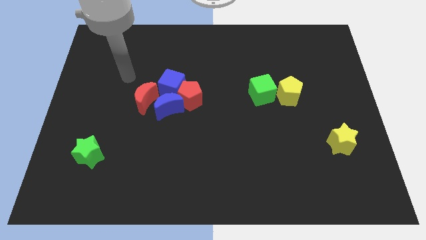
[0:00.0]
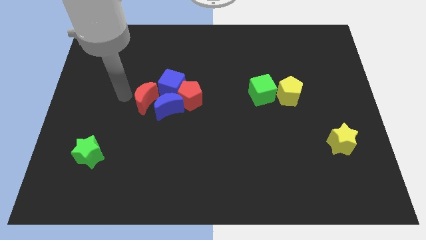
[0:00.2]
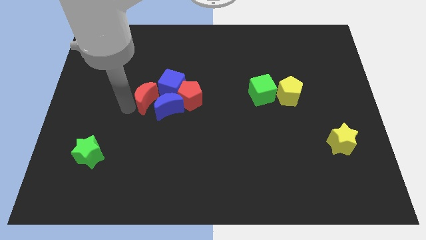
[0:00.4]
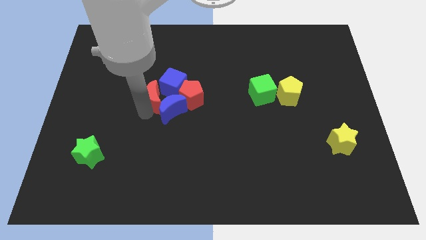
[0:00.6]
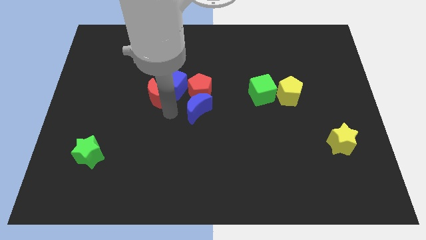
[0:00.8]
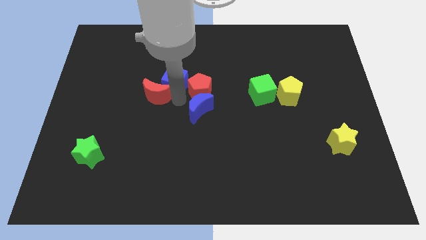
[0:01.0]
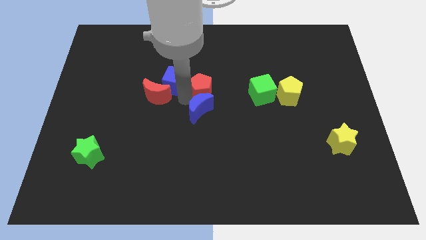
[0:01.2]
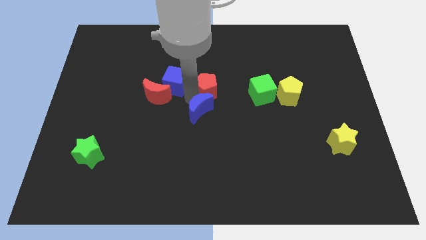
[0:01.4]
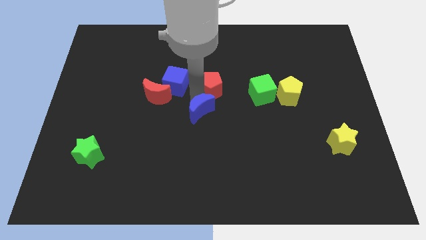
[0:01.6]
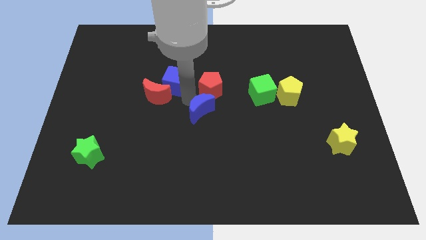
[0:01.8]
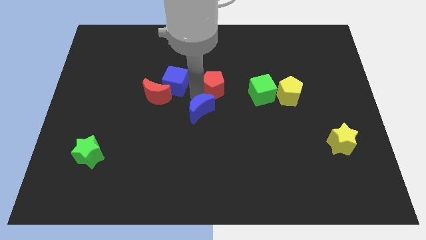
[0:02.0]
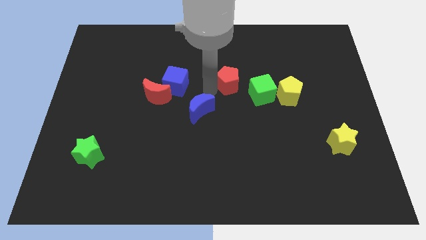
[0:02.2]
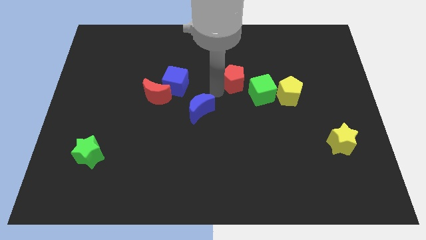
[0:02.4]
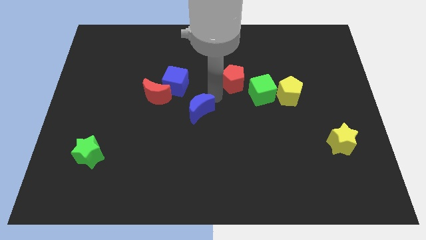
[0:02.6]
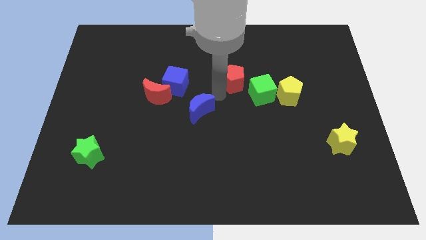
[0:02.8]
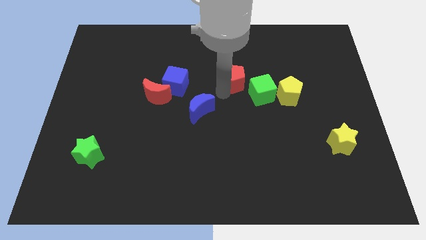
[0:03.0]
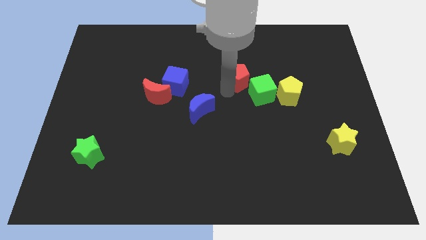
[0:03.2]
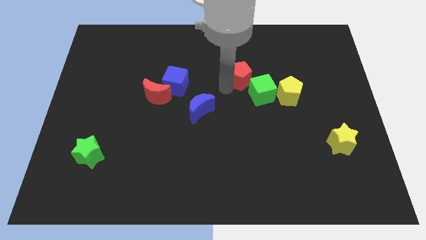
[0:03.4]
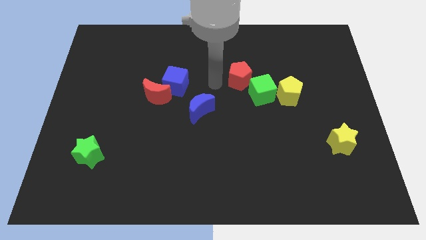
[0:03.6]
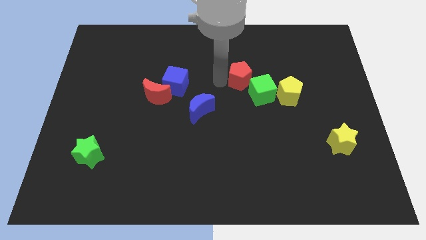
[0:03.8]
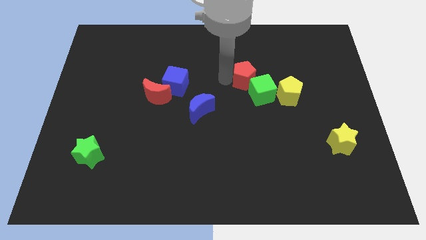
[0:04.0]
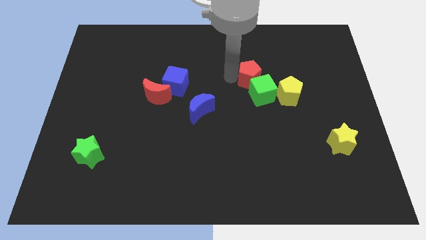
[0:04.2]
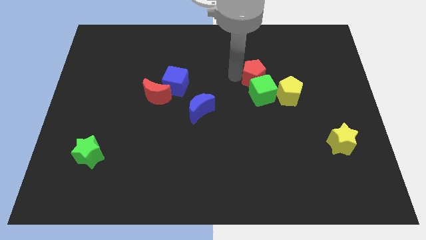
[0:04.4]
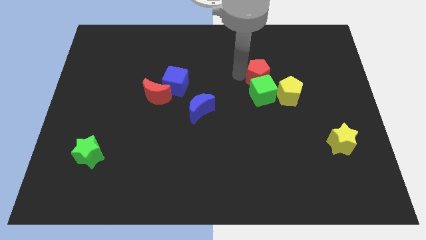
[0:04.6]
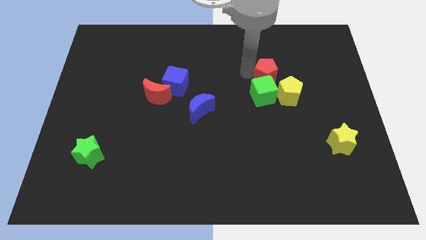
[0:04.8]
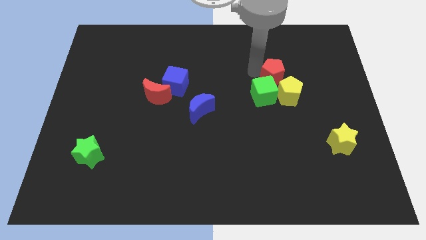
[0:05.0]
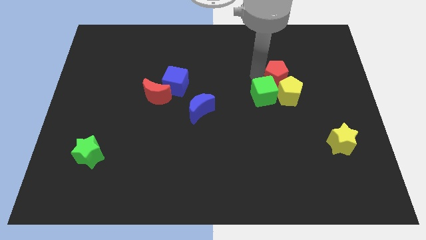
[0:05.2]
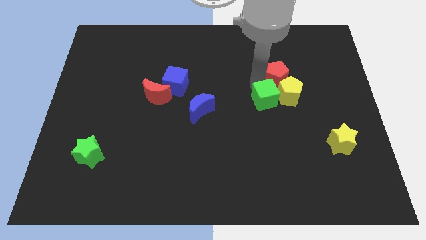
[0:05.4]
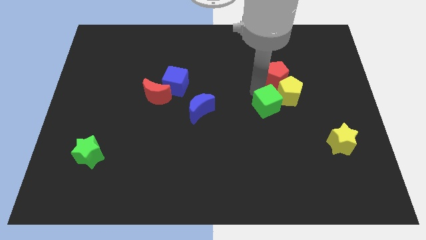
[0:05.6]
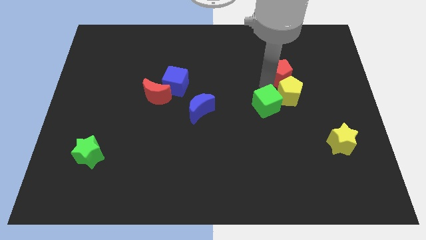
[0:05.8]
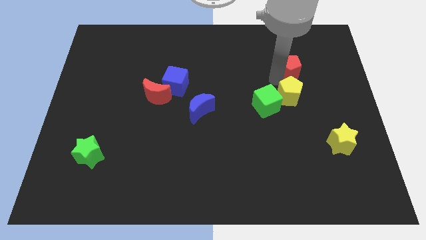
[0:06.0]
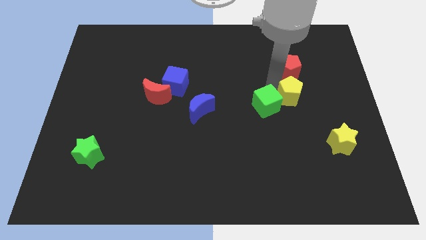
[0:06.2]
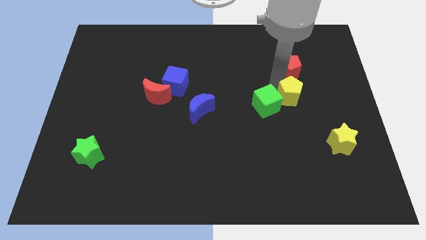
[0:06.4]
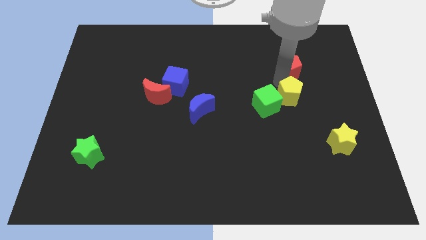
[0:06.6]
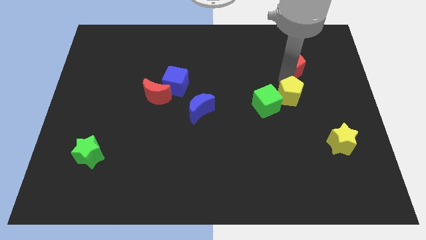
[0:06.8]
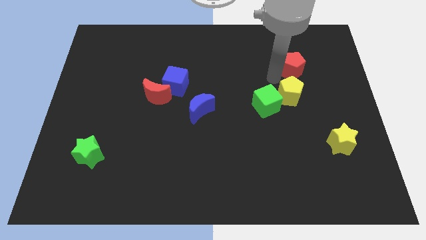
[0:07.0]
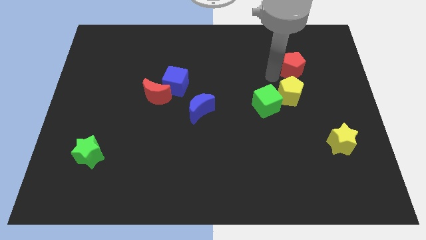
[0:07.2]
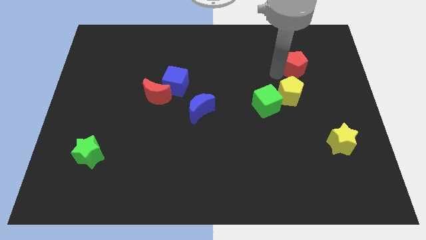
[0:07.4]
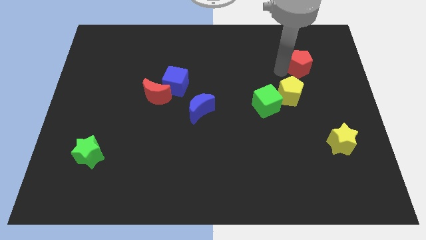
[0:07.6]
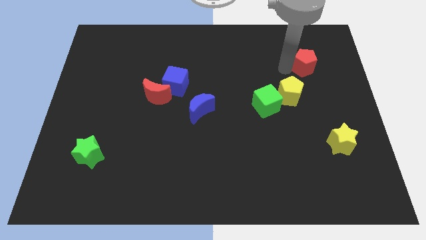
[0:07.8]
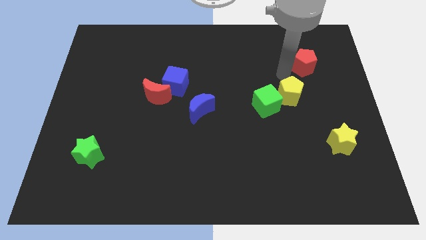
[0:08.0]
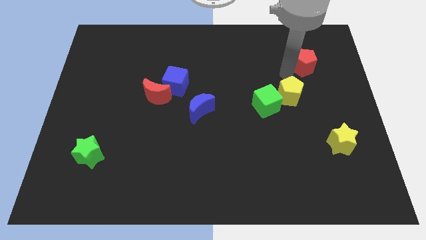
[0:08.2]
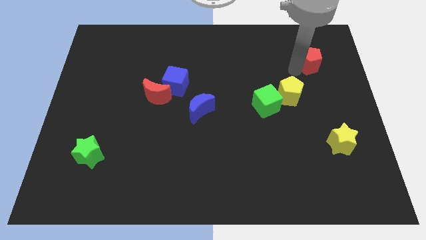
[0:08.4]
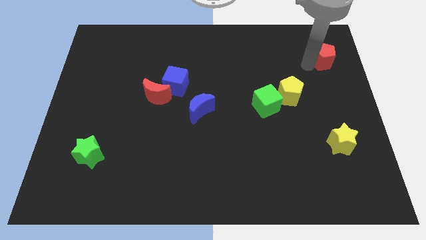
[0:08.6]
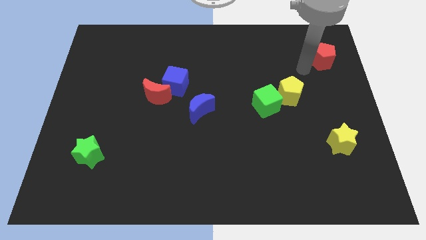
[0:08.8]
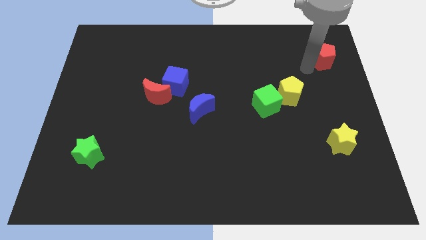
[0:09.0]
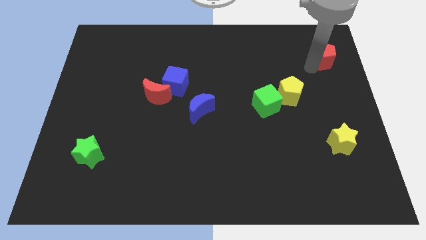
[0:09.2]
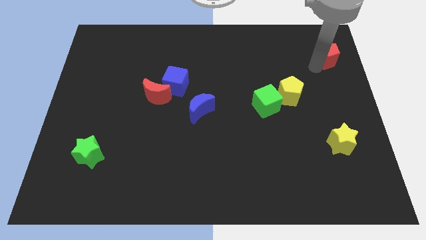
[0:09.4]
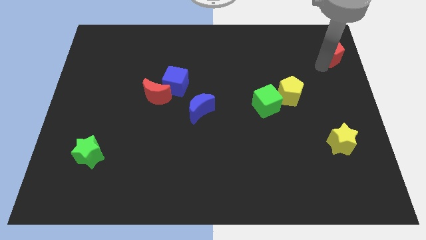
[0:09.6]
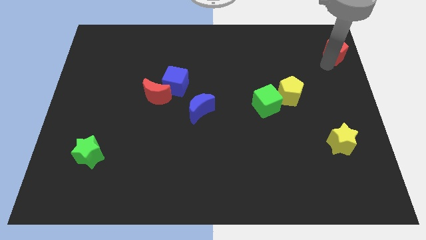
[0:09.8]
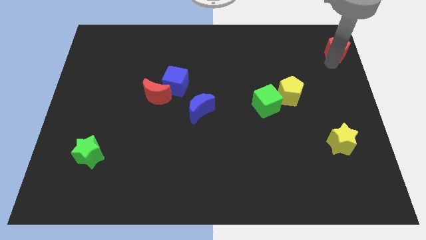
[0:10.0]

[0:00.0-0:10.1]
move the red pentagon to the top right of the board

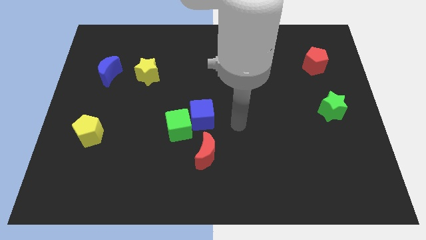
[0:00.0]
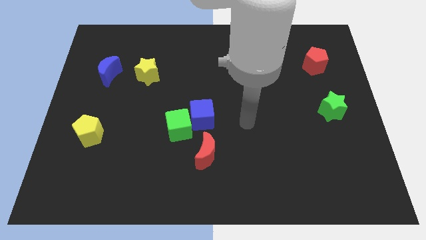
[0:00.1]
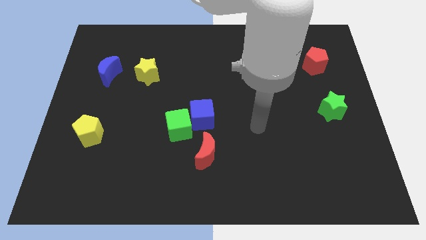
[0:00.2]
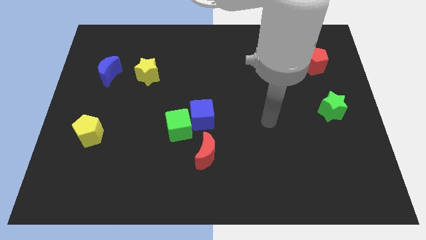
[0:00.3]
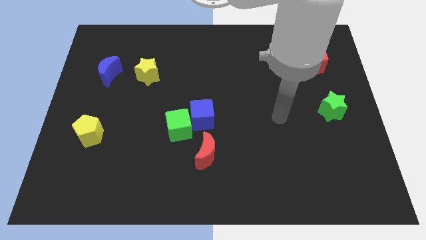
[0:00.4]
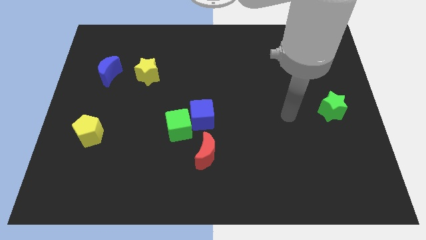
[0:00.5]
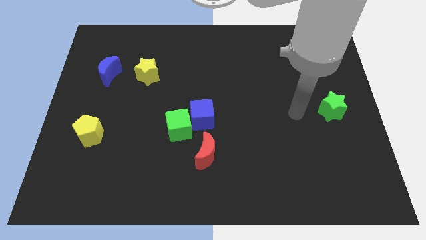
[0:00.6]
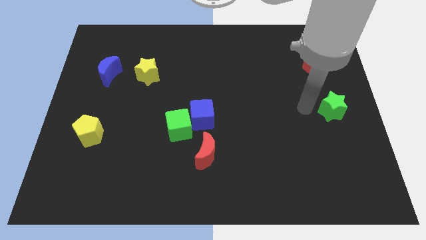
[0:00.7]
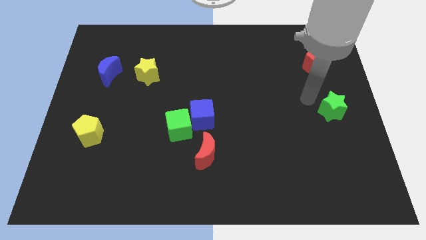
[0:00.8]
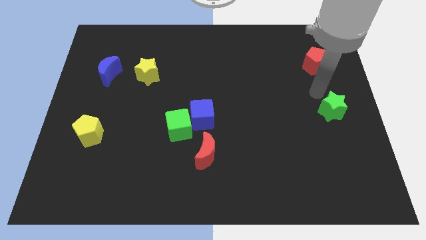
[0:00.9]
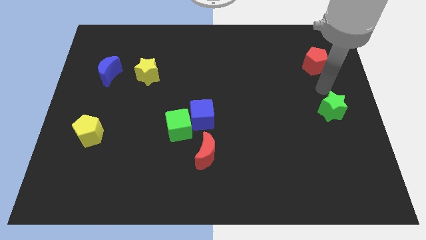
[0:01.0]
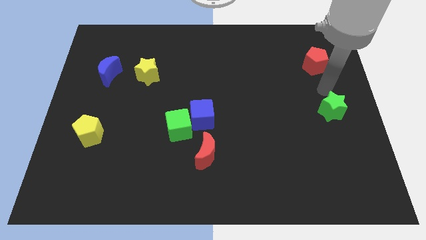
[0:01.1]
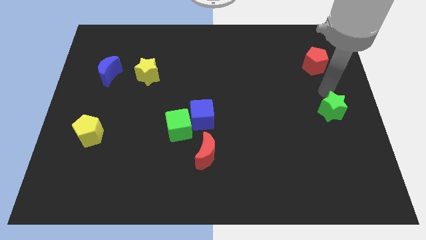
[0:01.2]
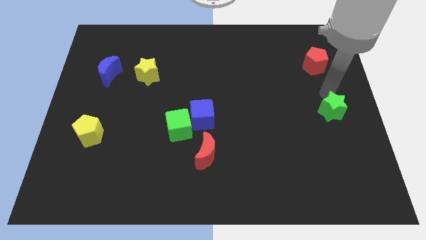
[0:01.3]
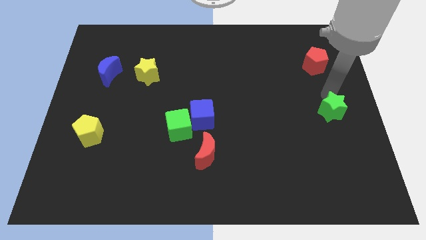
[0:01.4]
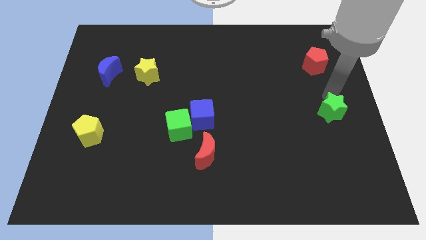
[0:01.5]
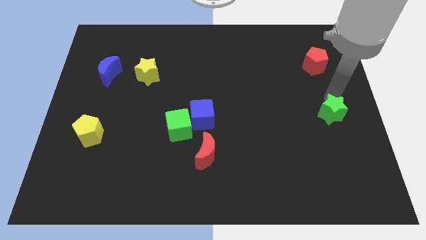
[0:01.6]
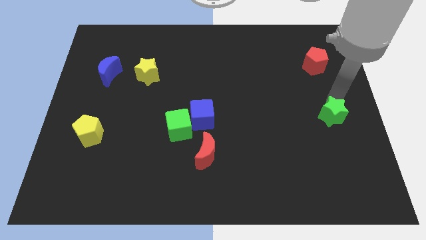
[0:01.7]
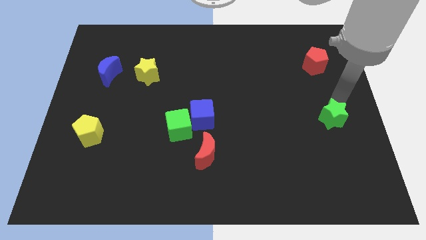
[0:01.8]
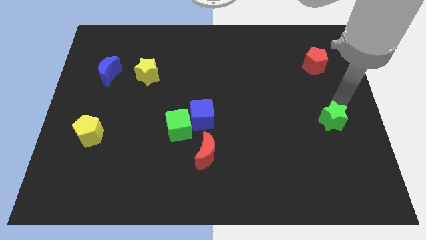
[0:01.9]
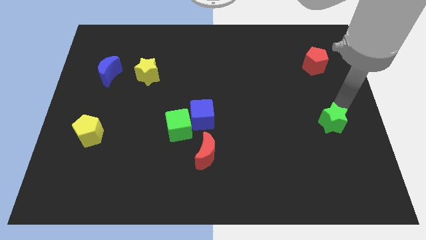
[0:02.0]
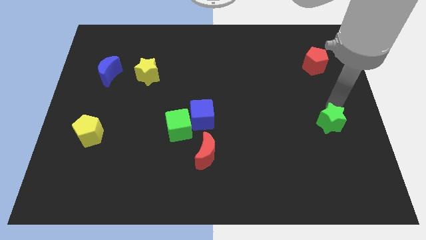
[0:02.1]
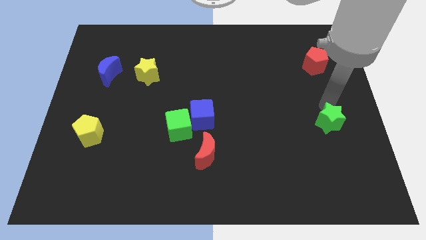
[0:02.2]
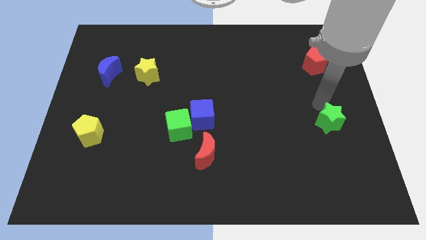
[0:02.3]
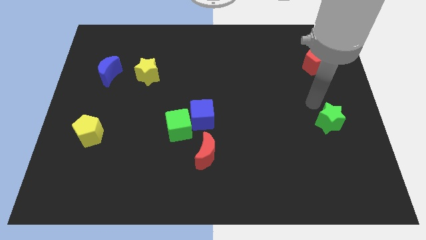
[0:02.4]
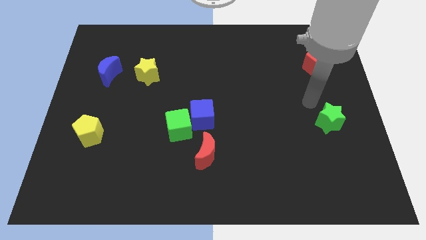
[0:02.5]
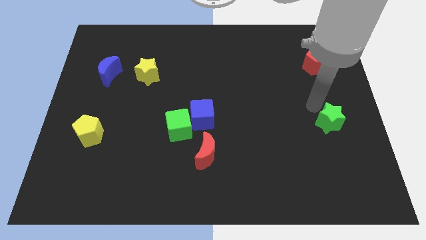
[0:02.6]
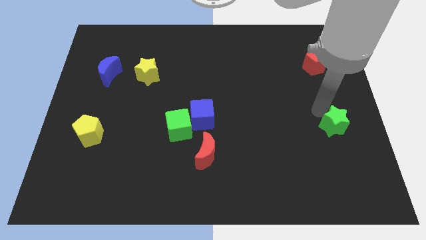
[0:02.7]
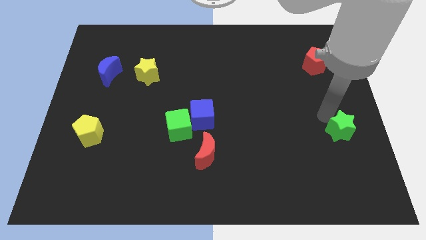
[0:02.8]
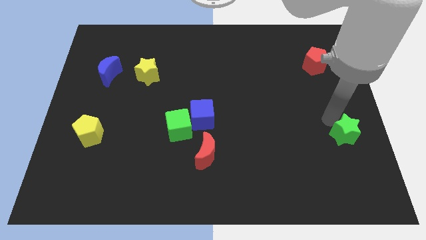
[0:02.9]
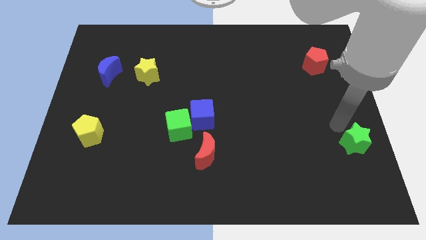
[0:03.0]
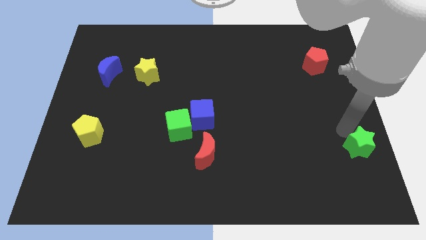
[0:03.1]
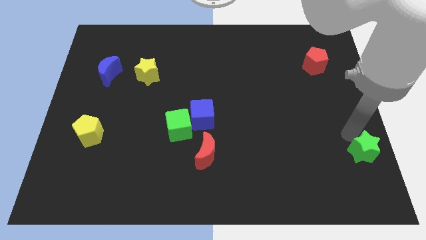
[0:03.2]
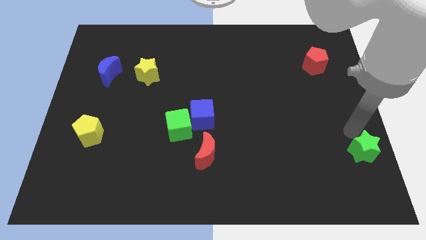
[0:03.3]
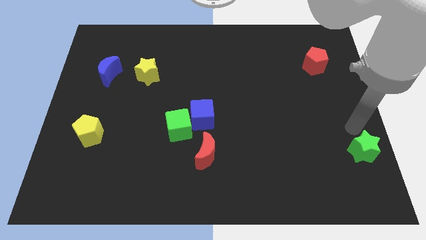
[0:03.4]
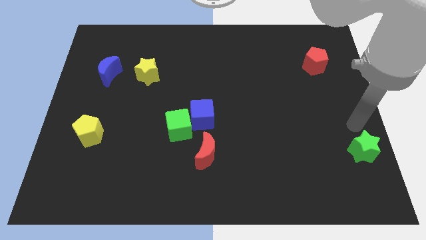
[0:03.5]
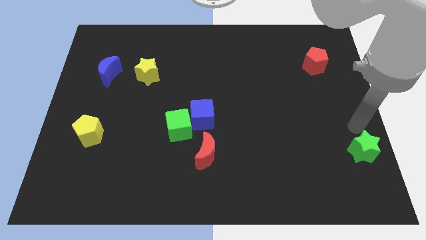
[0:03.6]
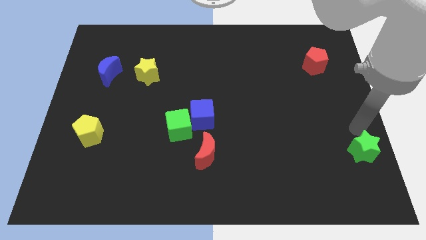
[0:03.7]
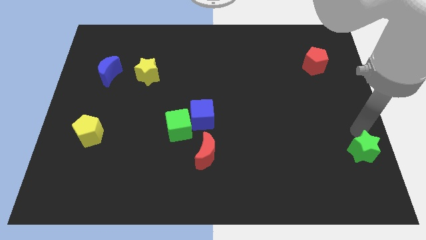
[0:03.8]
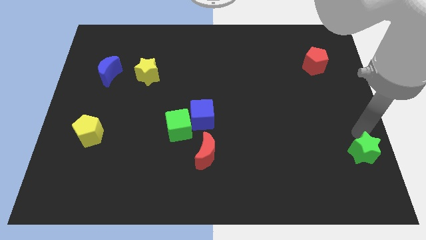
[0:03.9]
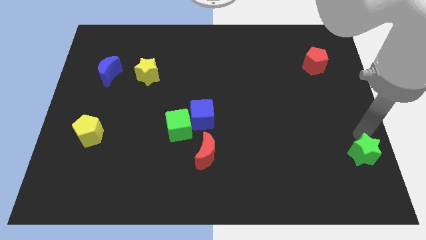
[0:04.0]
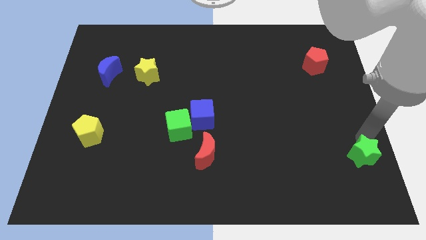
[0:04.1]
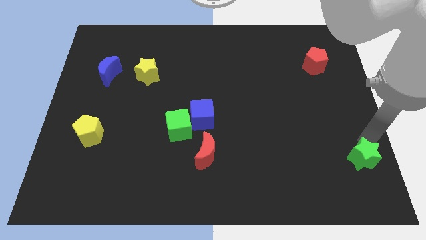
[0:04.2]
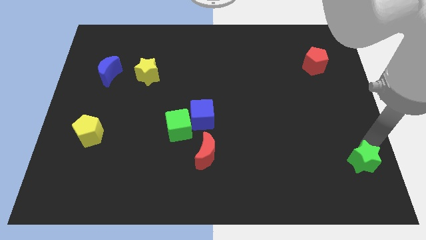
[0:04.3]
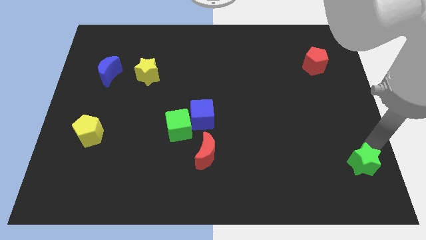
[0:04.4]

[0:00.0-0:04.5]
push the green star to the bottom right
